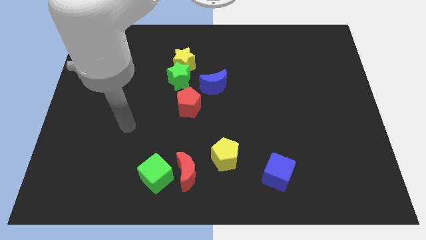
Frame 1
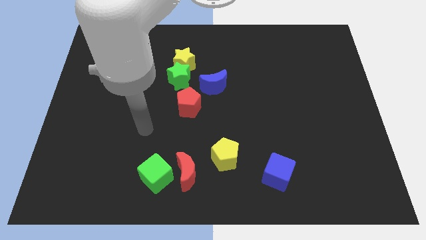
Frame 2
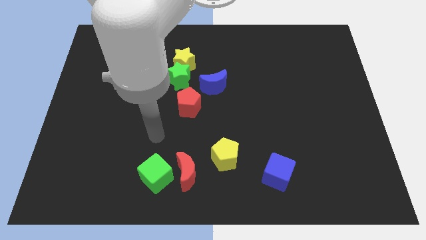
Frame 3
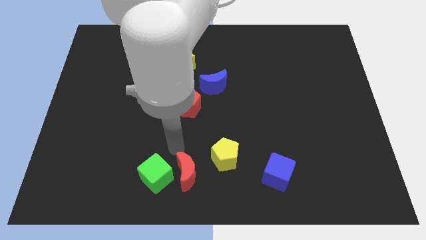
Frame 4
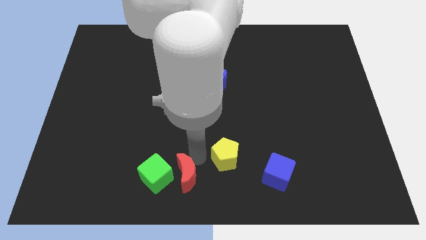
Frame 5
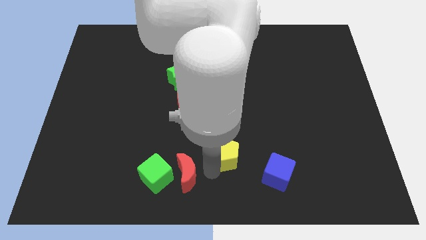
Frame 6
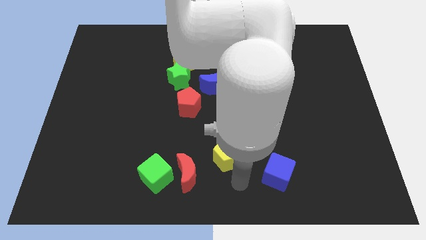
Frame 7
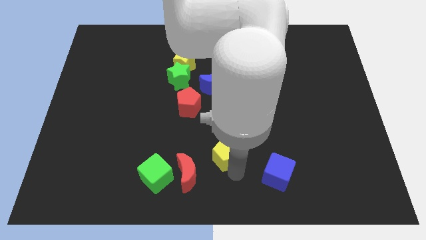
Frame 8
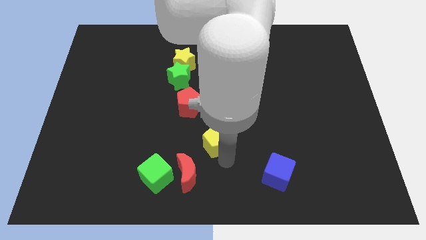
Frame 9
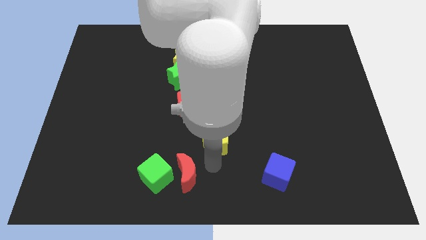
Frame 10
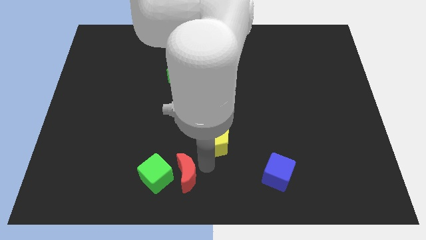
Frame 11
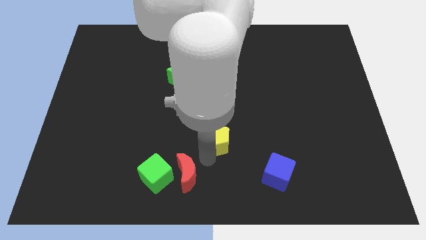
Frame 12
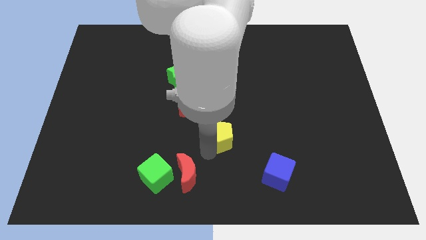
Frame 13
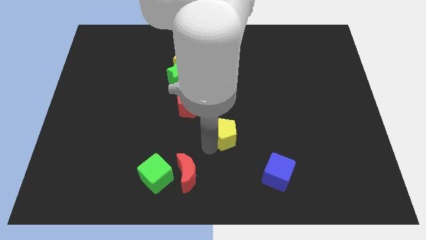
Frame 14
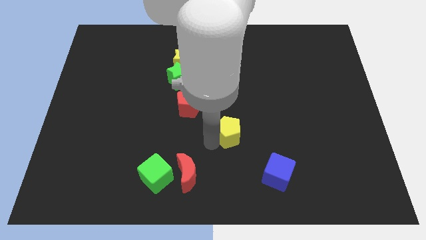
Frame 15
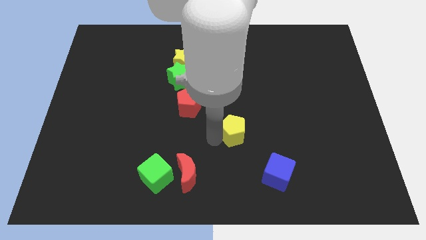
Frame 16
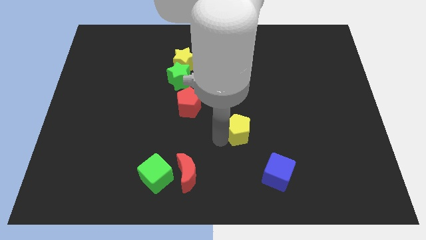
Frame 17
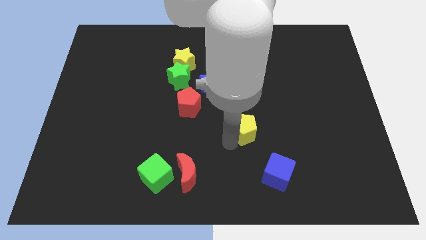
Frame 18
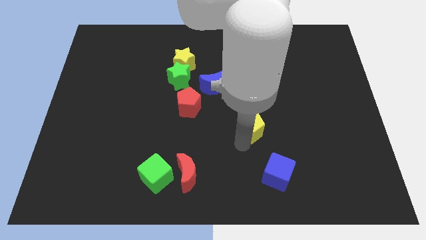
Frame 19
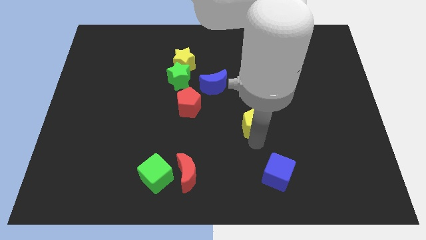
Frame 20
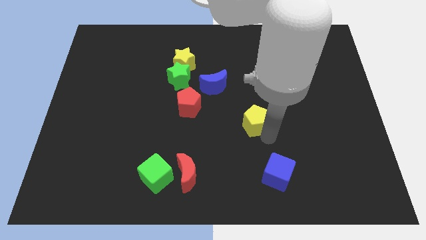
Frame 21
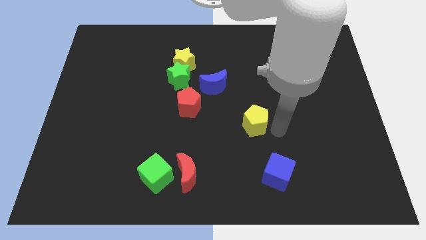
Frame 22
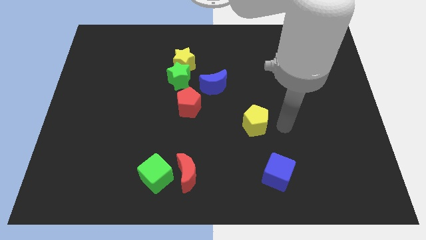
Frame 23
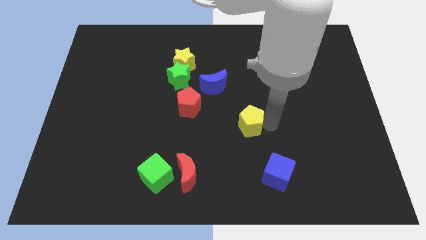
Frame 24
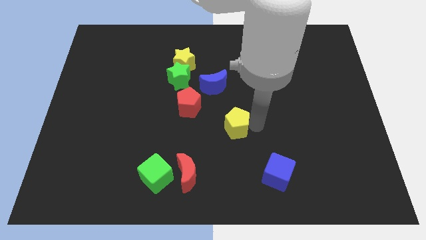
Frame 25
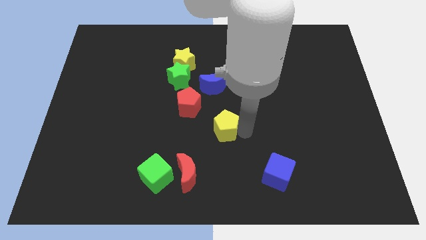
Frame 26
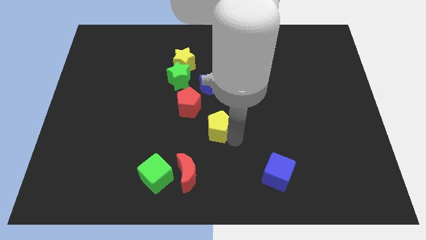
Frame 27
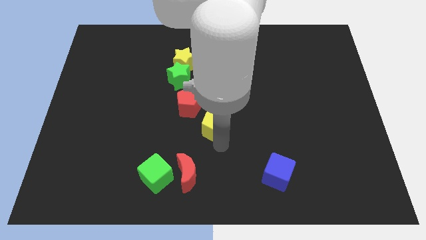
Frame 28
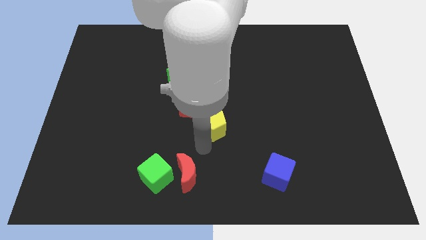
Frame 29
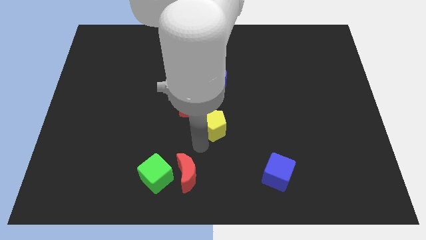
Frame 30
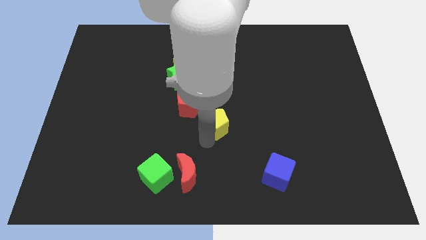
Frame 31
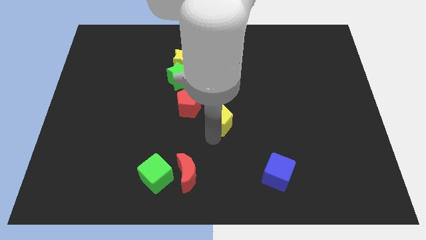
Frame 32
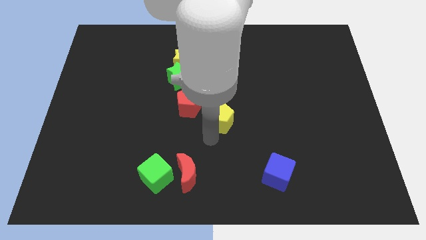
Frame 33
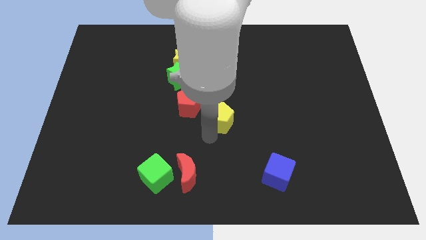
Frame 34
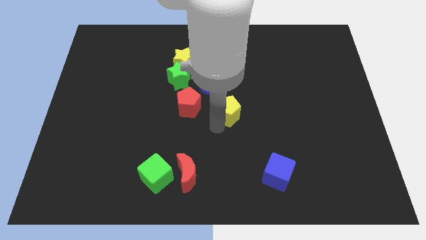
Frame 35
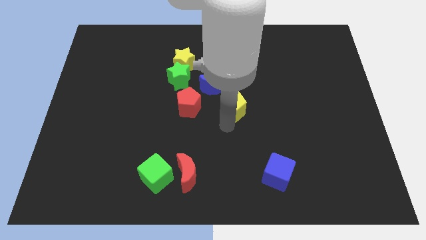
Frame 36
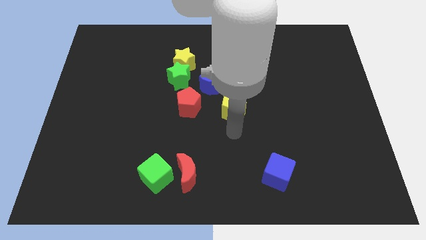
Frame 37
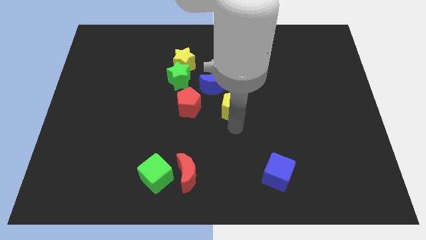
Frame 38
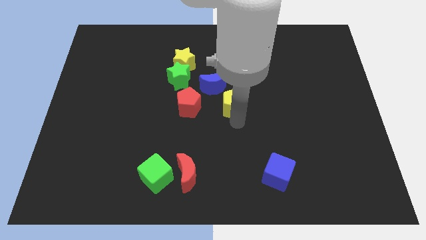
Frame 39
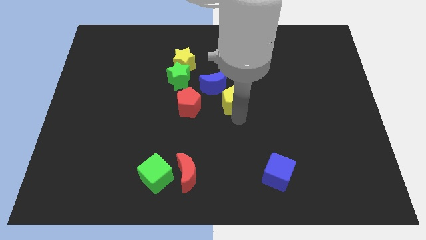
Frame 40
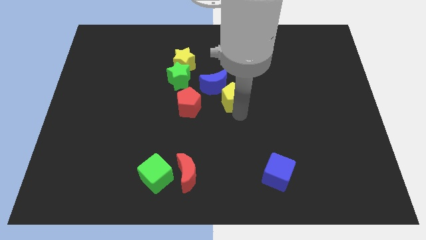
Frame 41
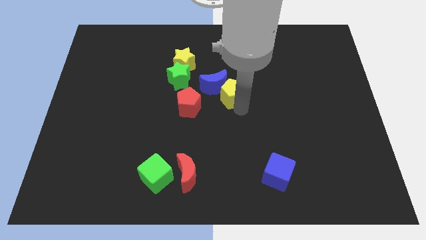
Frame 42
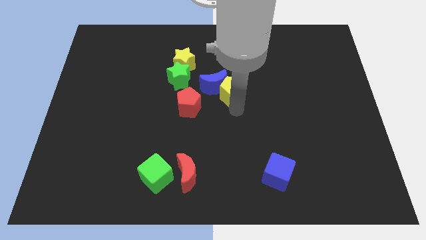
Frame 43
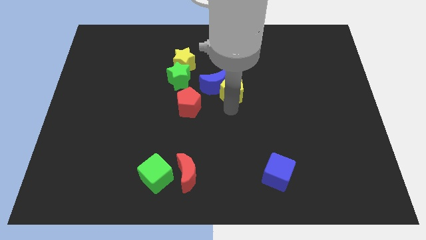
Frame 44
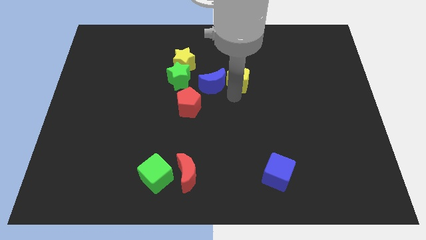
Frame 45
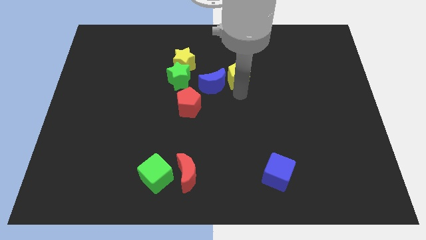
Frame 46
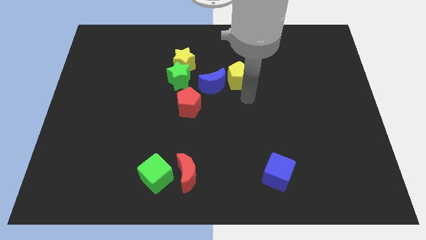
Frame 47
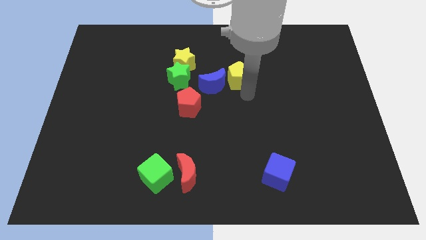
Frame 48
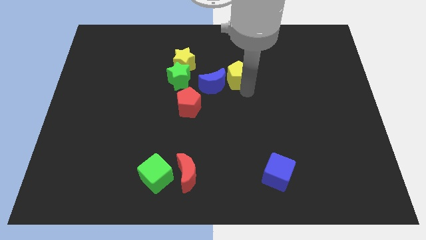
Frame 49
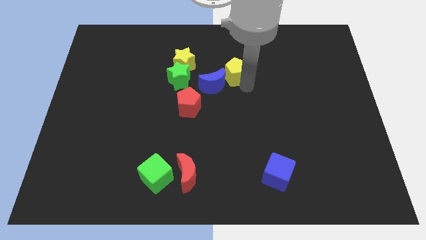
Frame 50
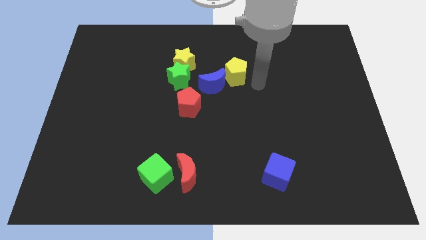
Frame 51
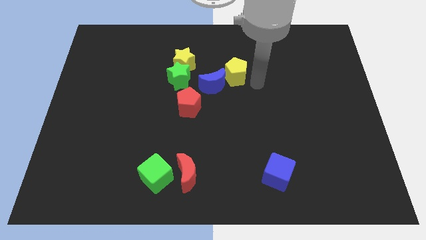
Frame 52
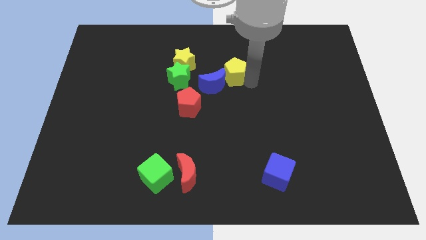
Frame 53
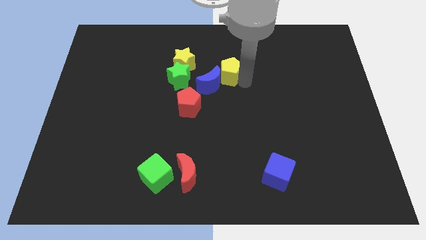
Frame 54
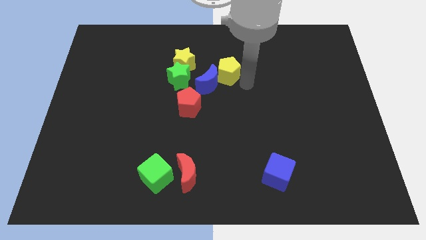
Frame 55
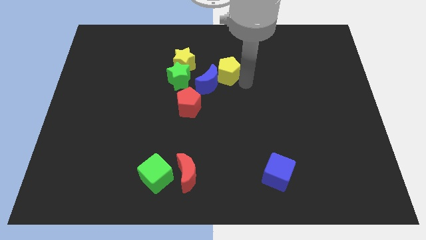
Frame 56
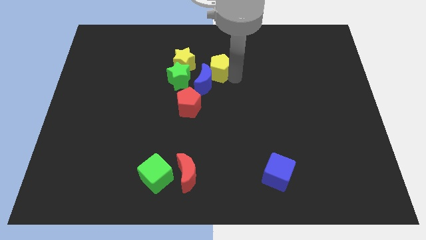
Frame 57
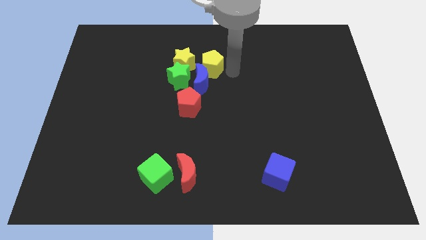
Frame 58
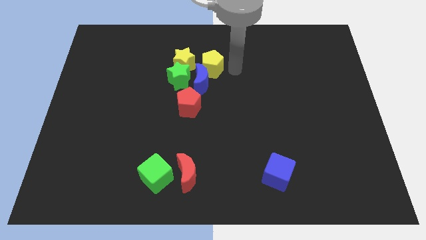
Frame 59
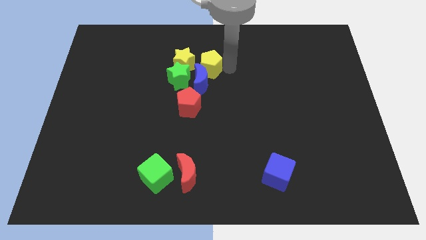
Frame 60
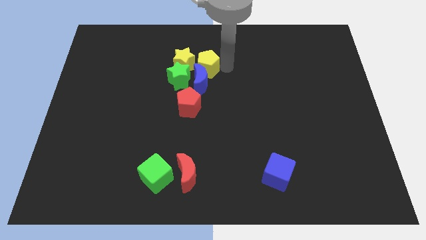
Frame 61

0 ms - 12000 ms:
push the yellow pentagon towards the yellow star
